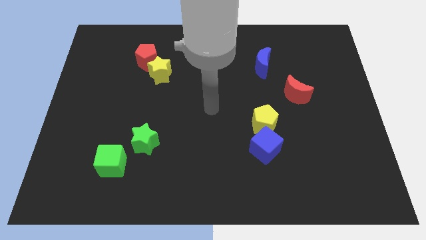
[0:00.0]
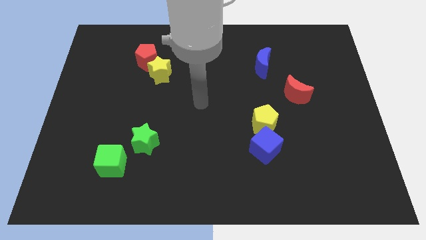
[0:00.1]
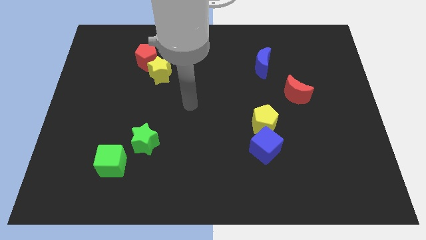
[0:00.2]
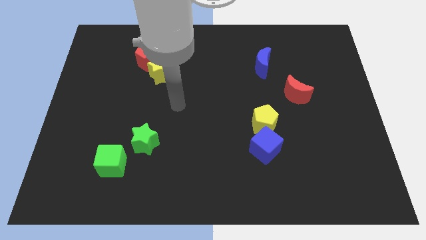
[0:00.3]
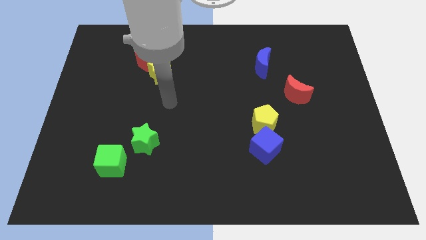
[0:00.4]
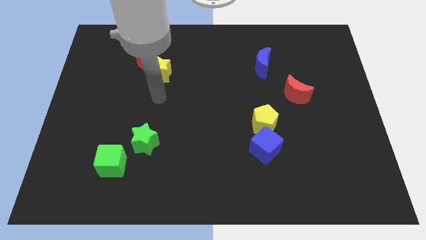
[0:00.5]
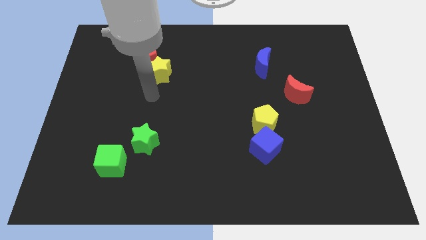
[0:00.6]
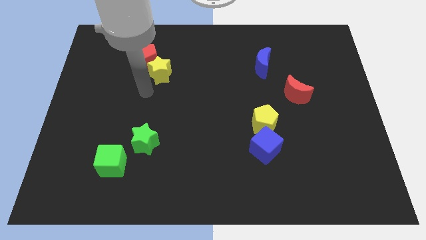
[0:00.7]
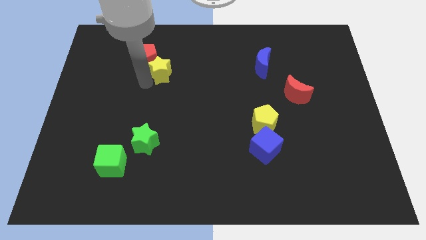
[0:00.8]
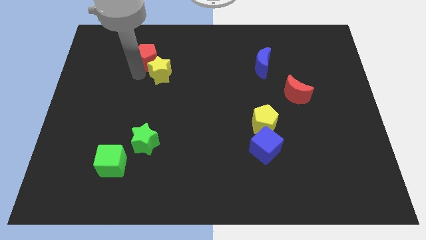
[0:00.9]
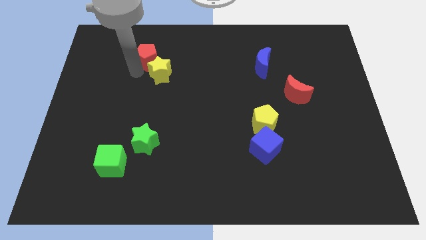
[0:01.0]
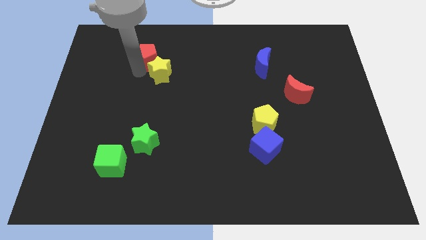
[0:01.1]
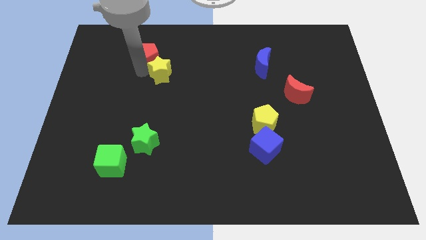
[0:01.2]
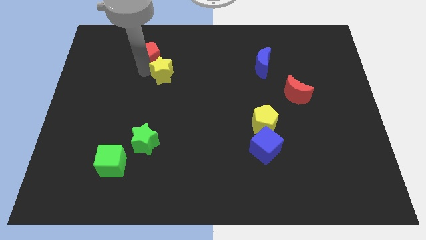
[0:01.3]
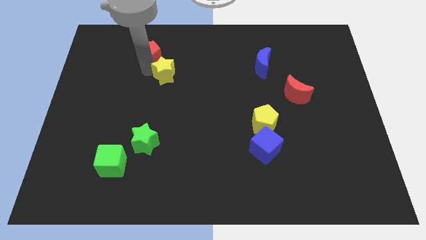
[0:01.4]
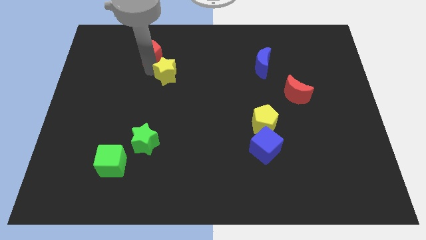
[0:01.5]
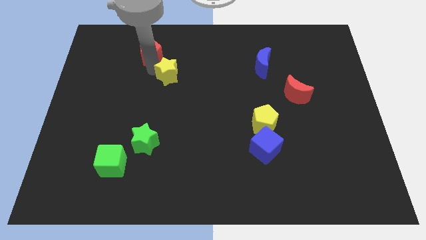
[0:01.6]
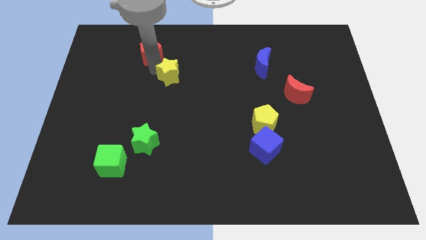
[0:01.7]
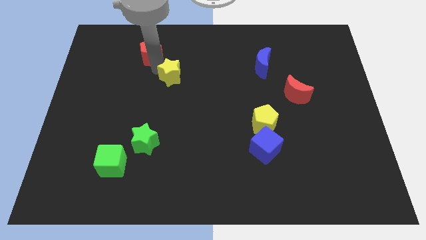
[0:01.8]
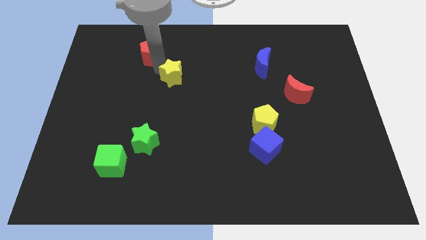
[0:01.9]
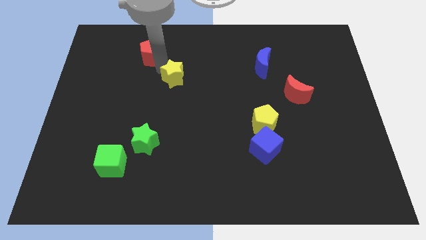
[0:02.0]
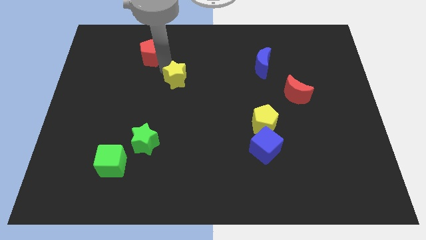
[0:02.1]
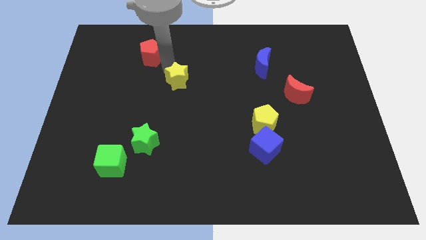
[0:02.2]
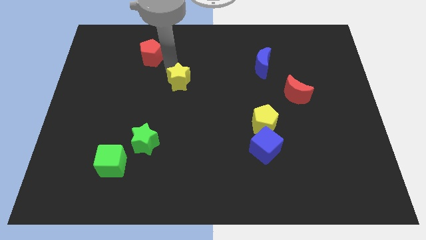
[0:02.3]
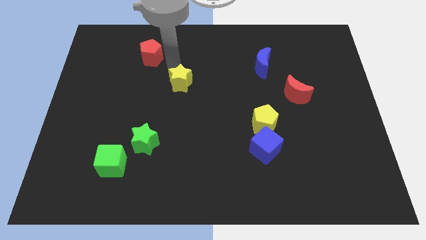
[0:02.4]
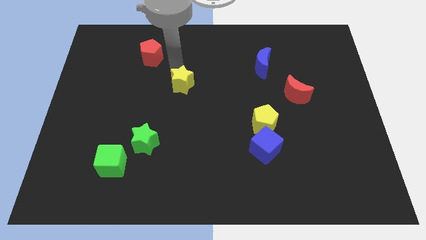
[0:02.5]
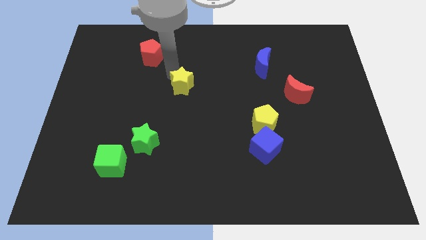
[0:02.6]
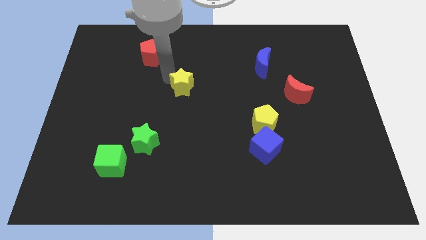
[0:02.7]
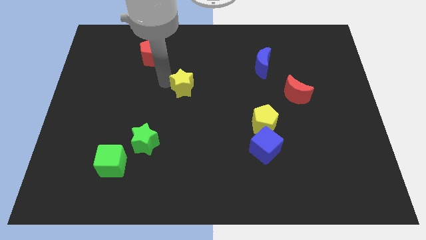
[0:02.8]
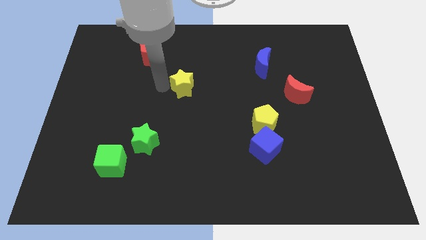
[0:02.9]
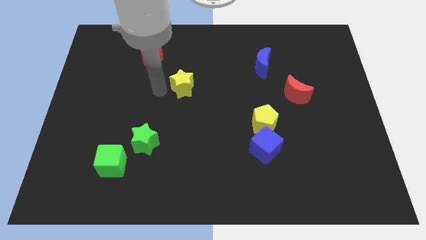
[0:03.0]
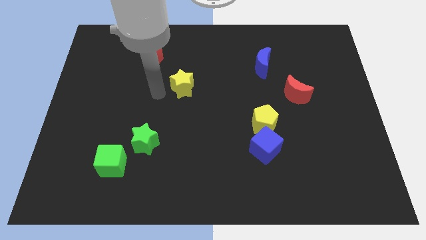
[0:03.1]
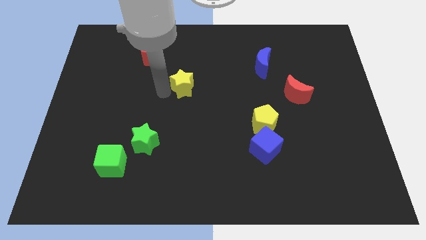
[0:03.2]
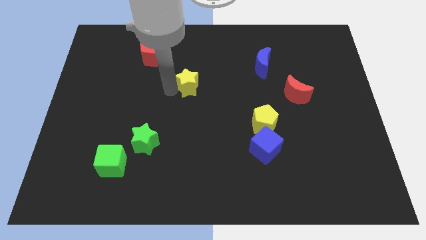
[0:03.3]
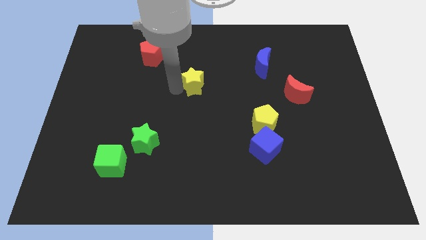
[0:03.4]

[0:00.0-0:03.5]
move the yellow star somewhat to the right

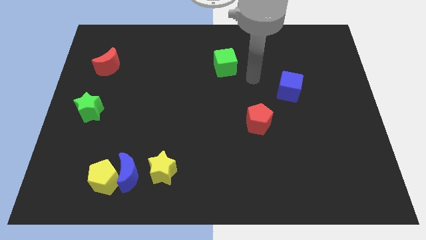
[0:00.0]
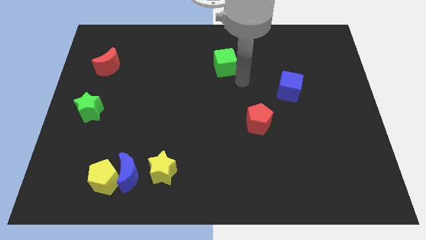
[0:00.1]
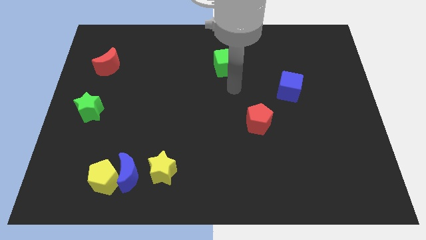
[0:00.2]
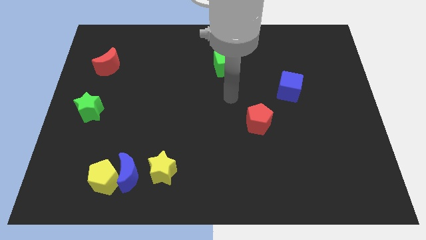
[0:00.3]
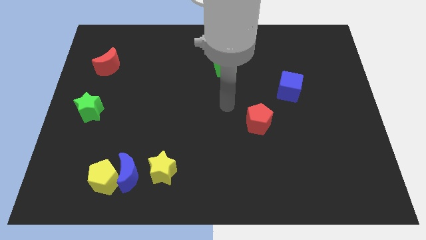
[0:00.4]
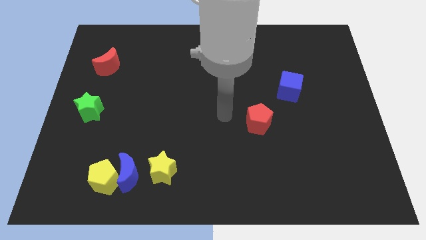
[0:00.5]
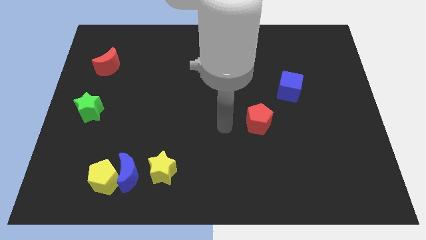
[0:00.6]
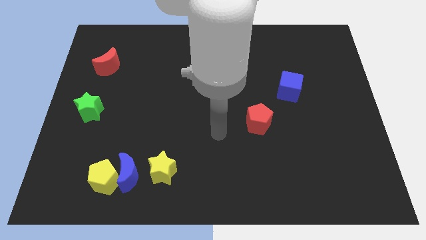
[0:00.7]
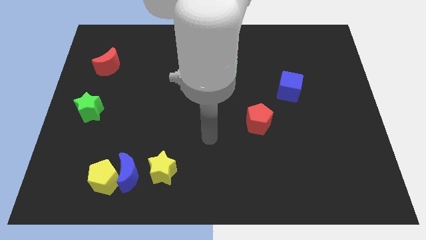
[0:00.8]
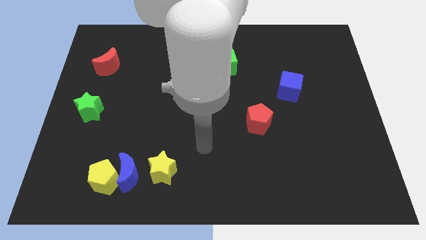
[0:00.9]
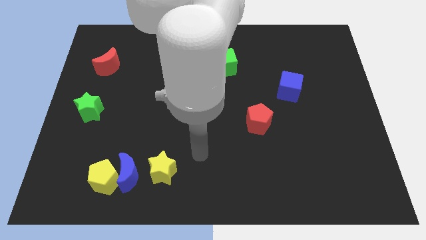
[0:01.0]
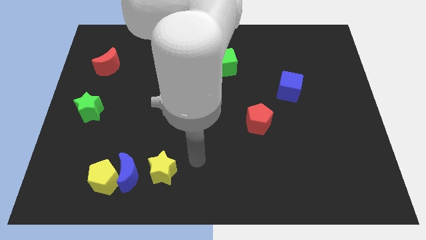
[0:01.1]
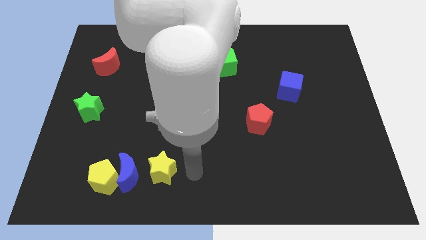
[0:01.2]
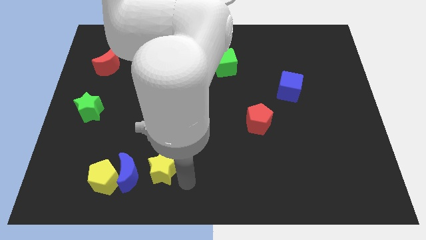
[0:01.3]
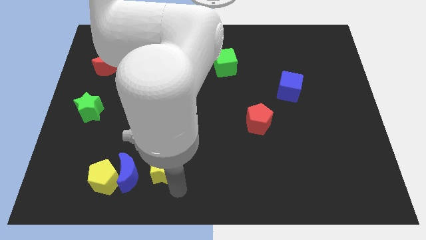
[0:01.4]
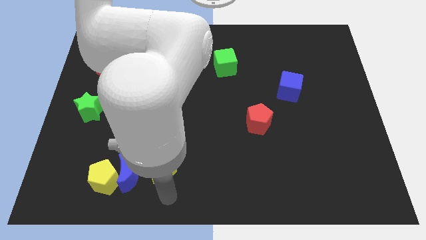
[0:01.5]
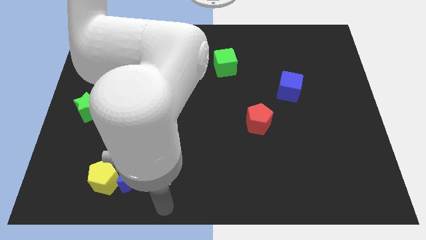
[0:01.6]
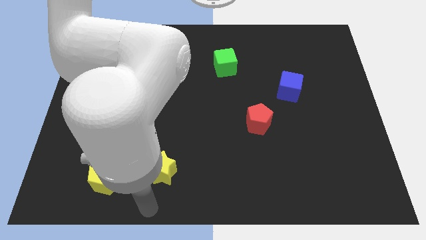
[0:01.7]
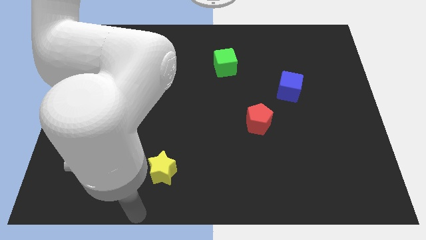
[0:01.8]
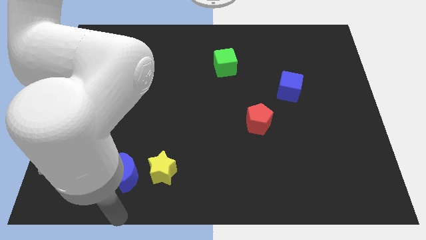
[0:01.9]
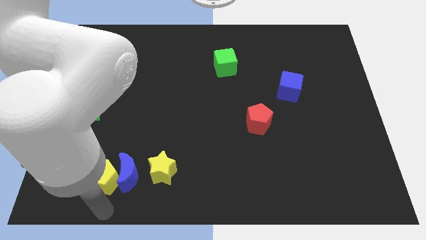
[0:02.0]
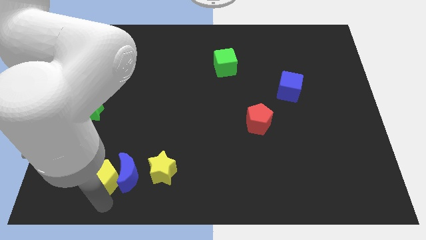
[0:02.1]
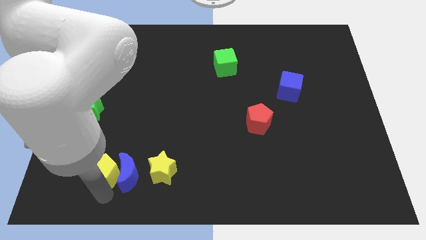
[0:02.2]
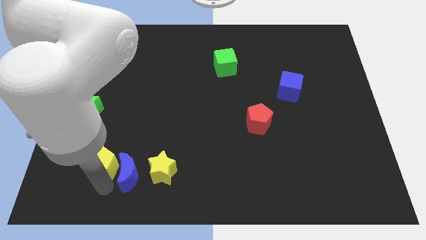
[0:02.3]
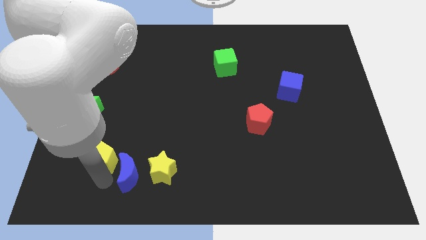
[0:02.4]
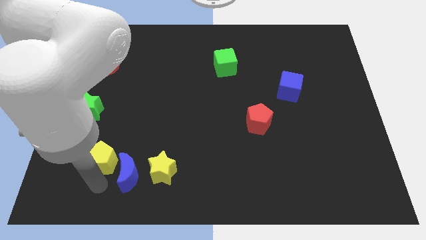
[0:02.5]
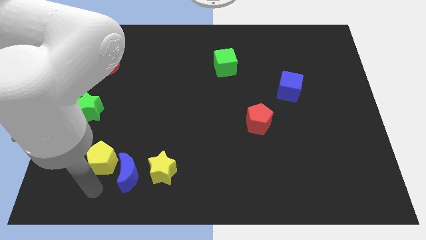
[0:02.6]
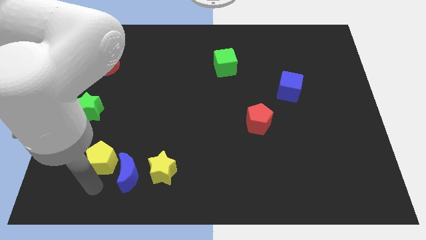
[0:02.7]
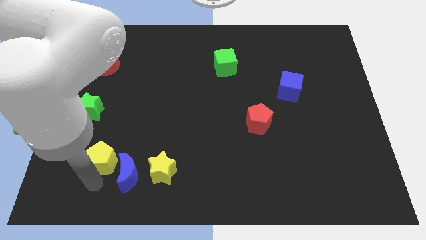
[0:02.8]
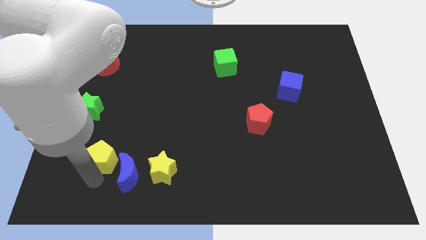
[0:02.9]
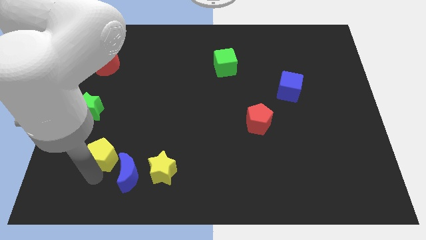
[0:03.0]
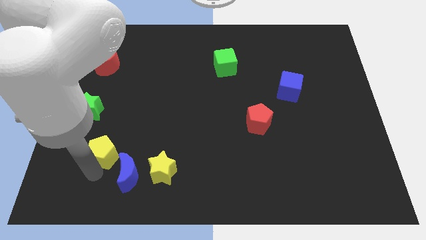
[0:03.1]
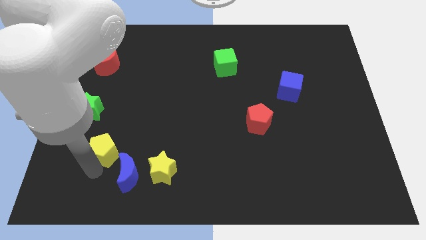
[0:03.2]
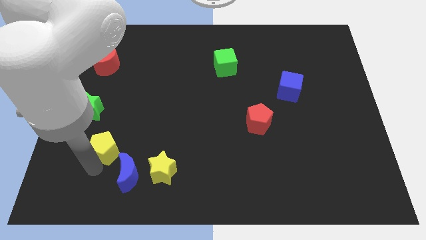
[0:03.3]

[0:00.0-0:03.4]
push the yellow pentagon slightly up

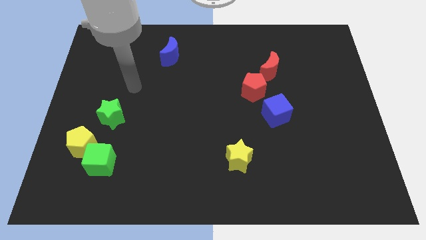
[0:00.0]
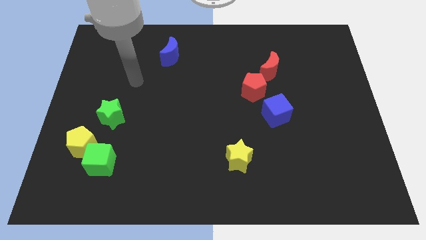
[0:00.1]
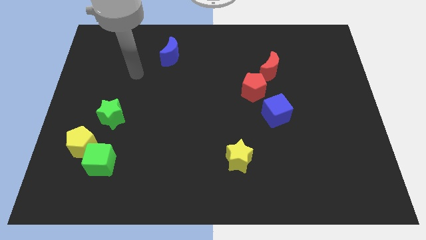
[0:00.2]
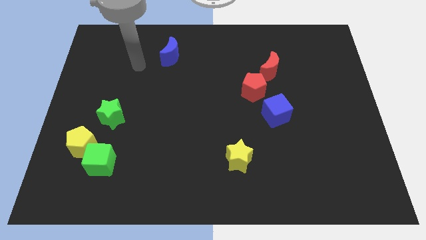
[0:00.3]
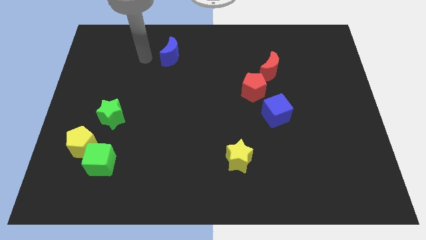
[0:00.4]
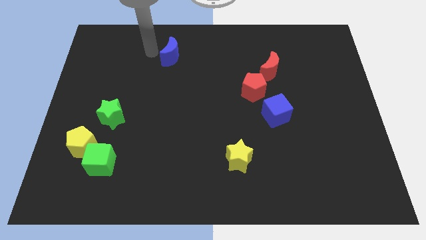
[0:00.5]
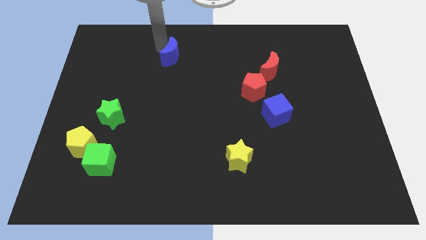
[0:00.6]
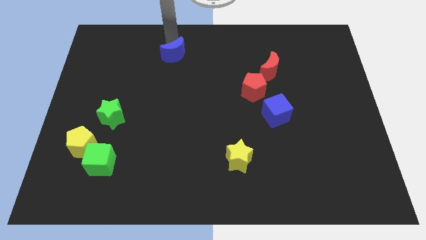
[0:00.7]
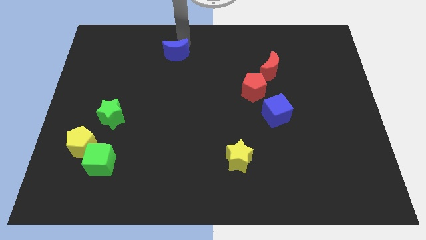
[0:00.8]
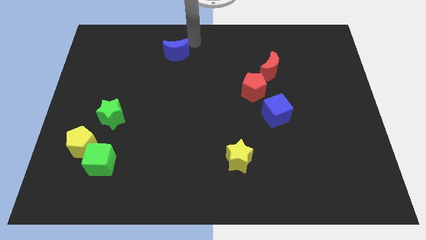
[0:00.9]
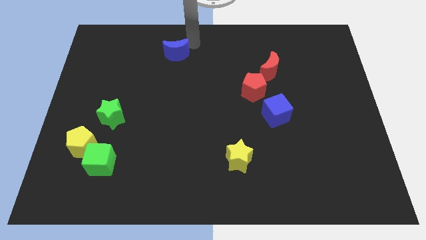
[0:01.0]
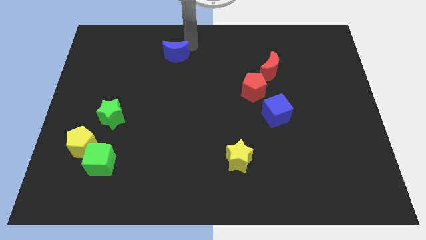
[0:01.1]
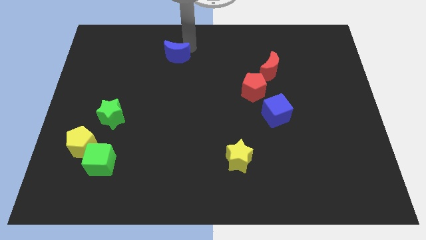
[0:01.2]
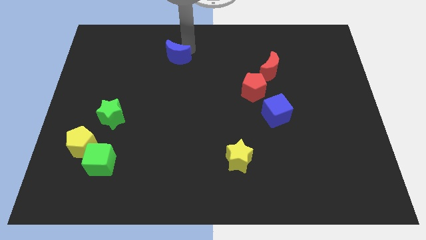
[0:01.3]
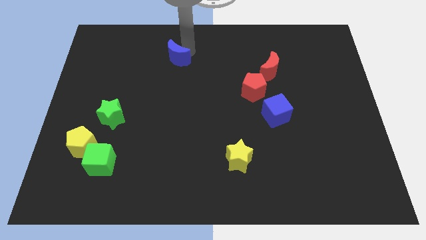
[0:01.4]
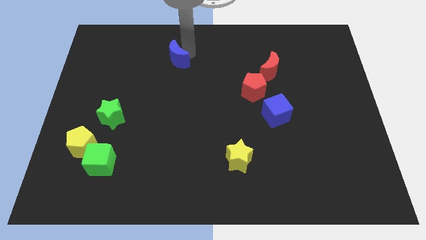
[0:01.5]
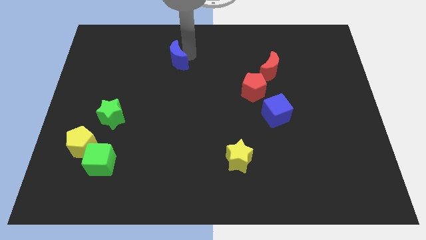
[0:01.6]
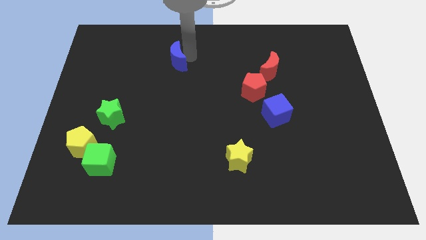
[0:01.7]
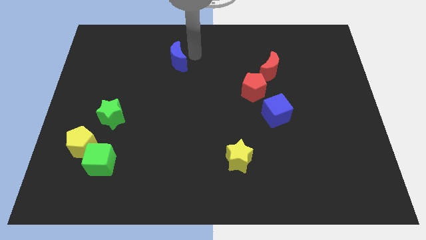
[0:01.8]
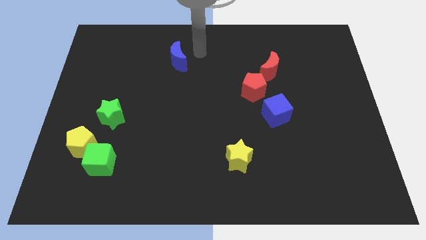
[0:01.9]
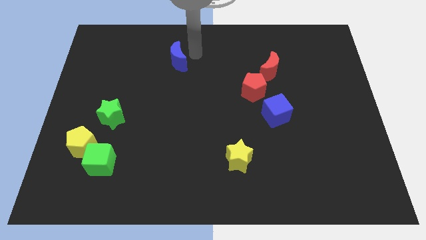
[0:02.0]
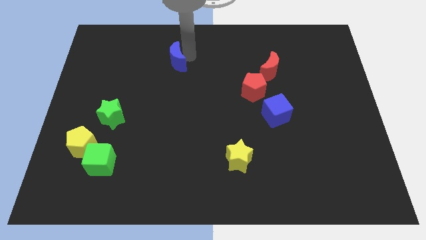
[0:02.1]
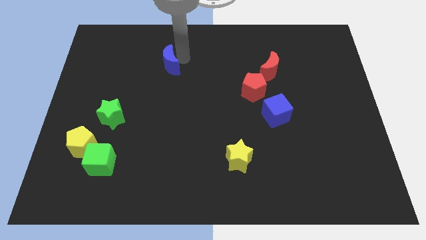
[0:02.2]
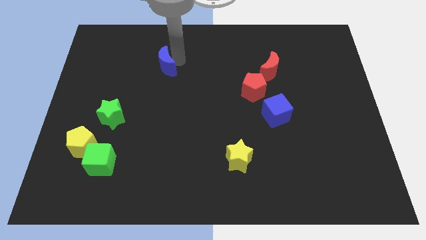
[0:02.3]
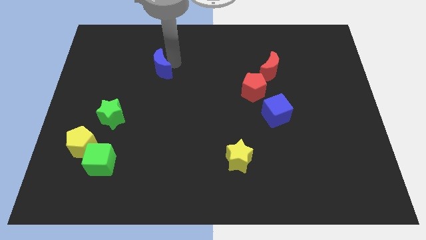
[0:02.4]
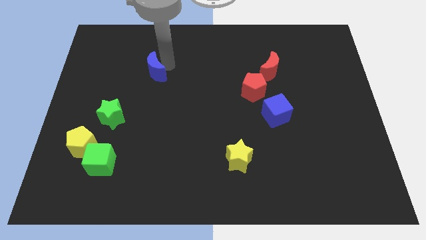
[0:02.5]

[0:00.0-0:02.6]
slightly push the blue moon downwards and then to the left
